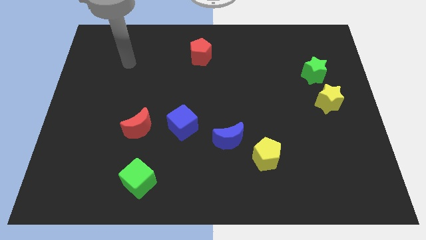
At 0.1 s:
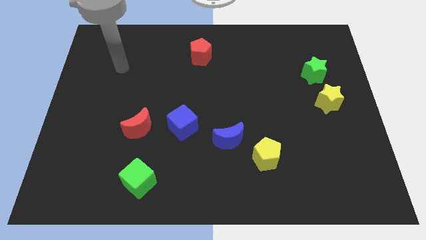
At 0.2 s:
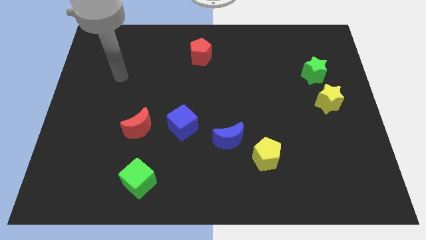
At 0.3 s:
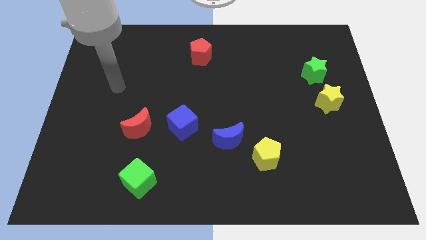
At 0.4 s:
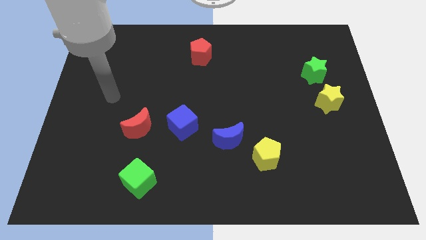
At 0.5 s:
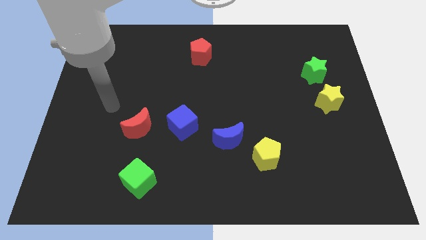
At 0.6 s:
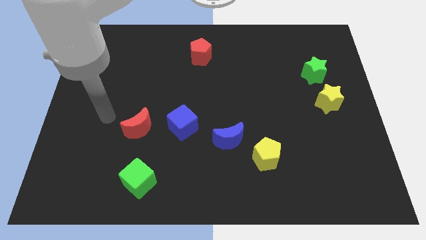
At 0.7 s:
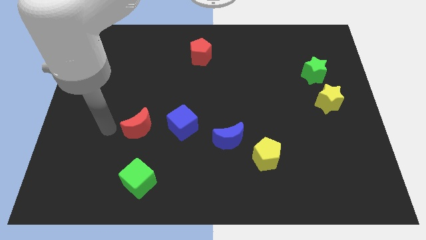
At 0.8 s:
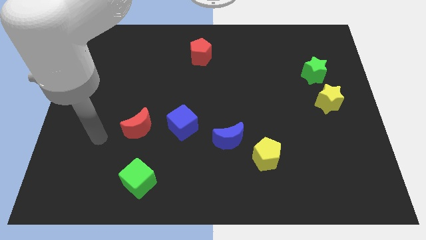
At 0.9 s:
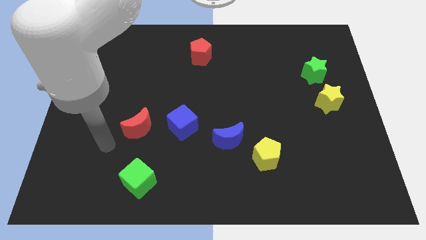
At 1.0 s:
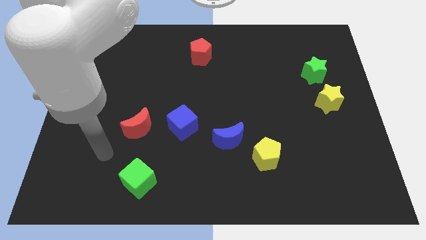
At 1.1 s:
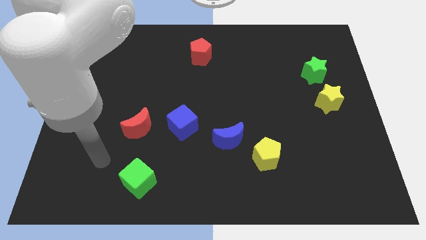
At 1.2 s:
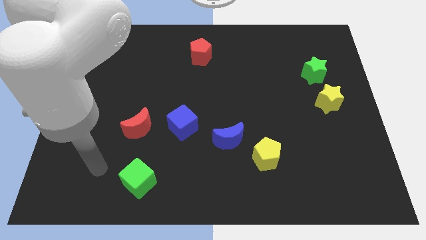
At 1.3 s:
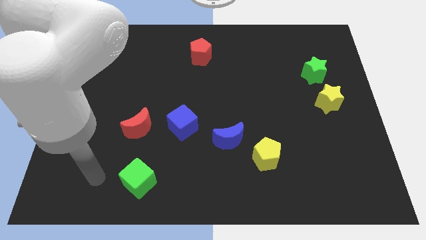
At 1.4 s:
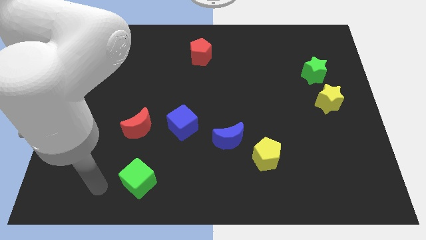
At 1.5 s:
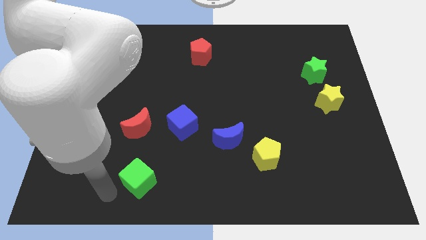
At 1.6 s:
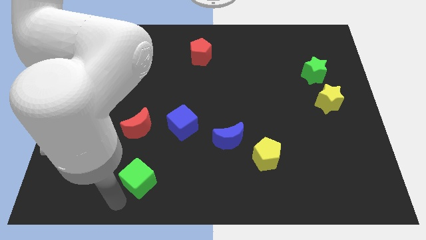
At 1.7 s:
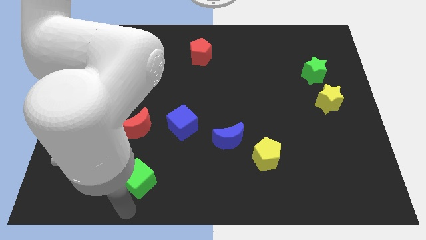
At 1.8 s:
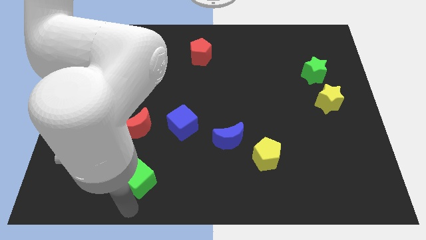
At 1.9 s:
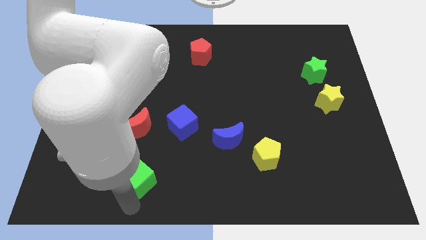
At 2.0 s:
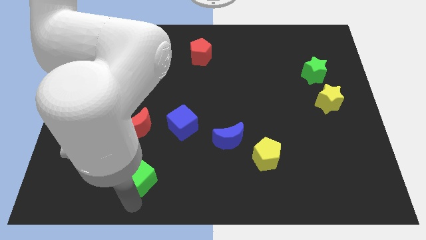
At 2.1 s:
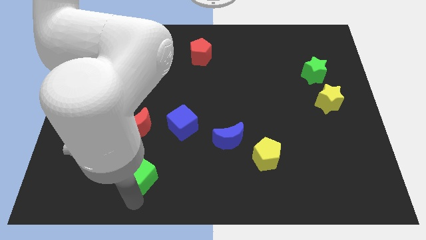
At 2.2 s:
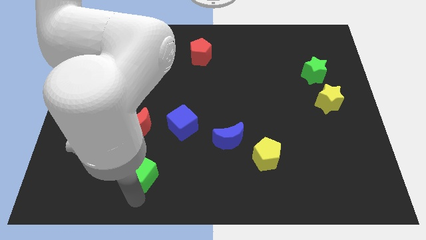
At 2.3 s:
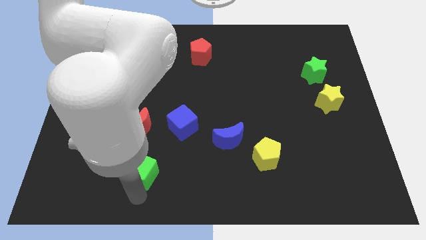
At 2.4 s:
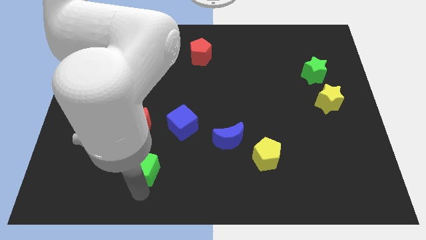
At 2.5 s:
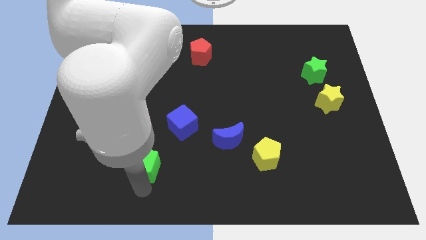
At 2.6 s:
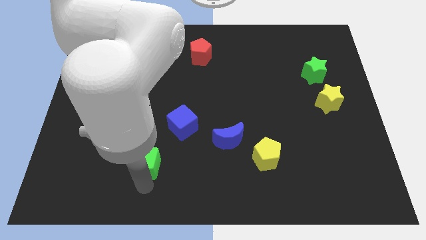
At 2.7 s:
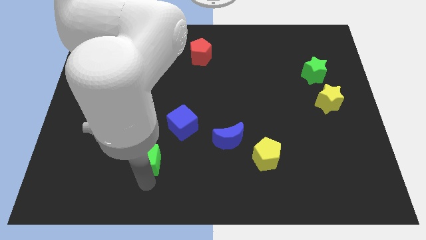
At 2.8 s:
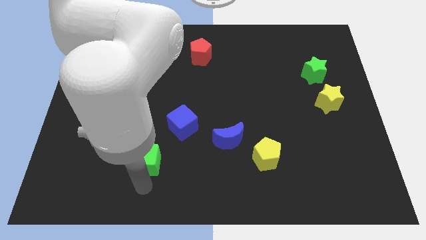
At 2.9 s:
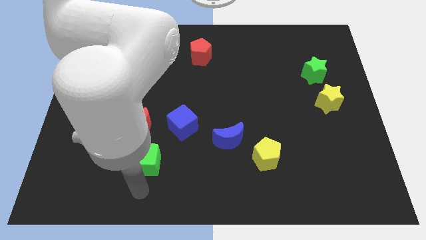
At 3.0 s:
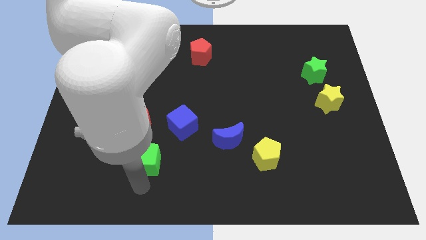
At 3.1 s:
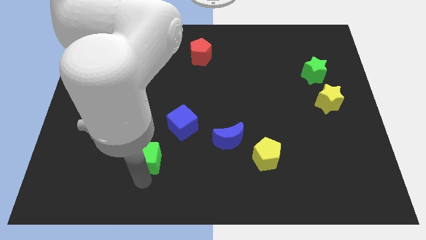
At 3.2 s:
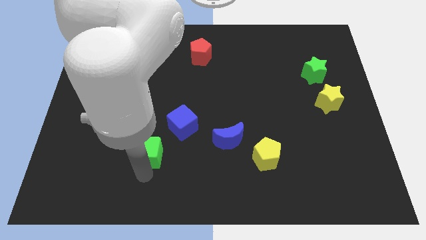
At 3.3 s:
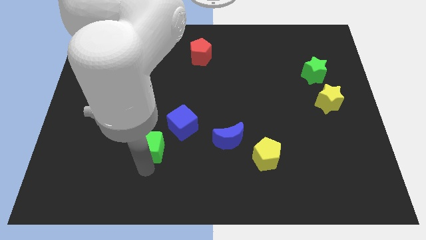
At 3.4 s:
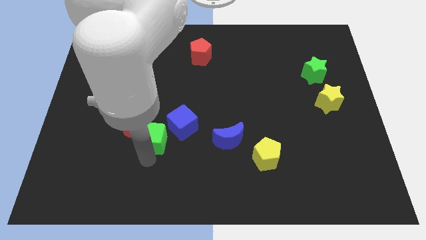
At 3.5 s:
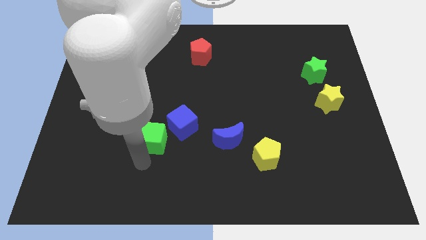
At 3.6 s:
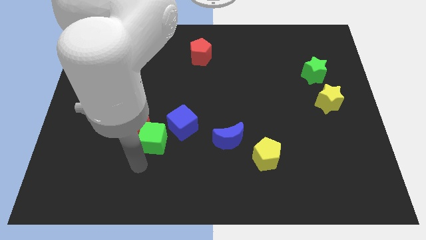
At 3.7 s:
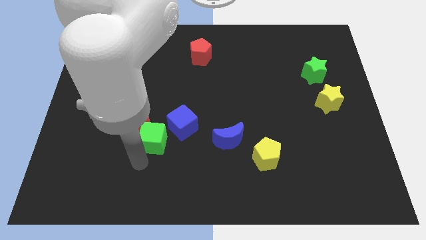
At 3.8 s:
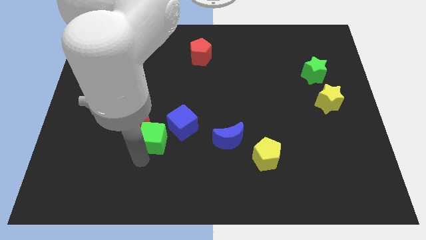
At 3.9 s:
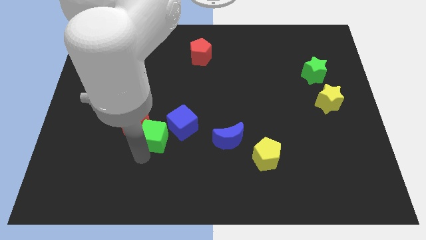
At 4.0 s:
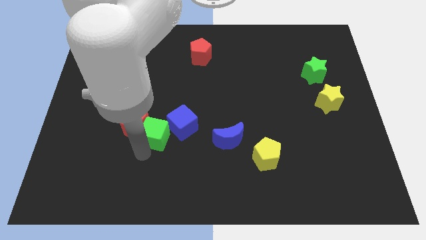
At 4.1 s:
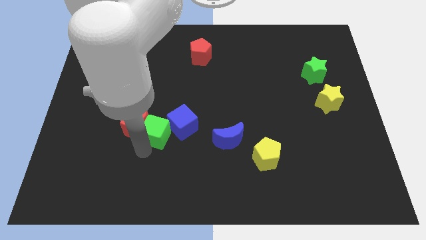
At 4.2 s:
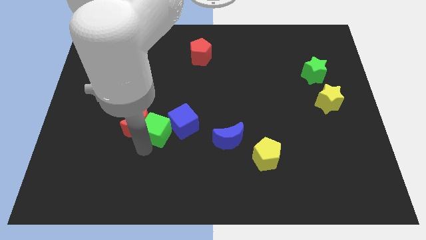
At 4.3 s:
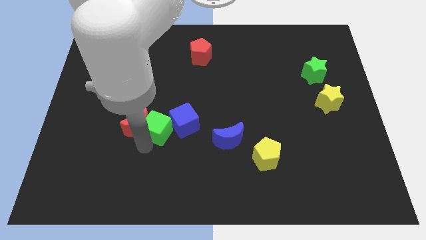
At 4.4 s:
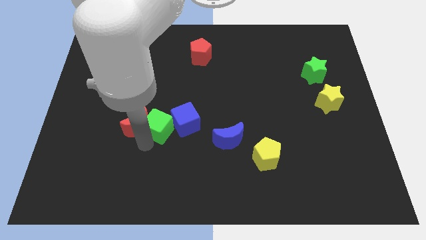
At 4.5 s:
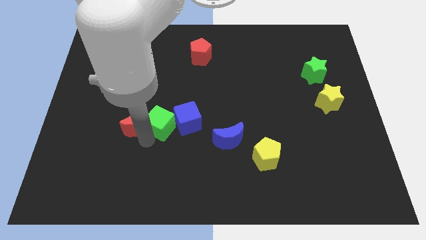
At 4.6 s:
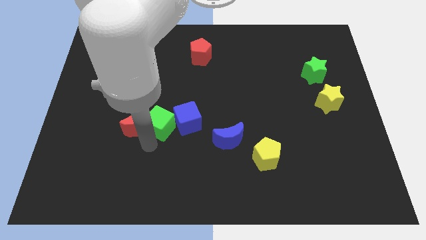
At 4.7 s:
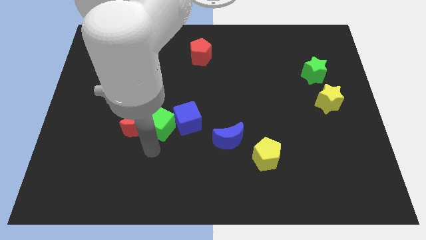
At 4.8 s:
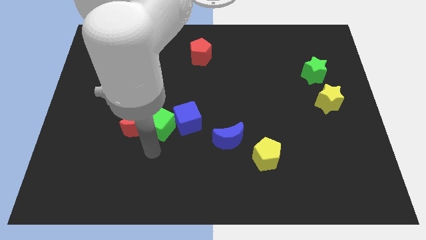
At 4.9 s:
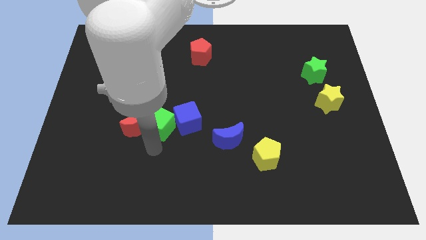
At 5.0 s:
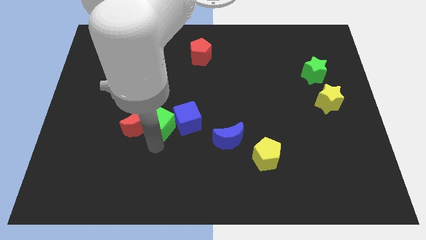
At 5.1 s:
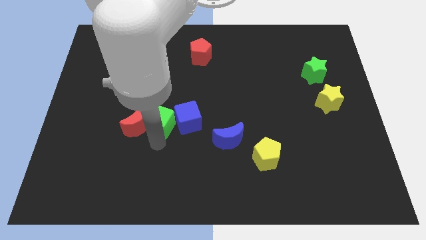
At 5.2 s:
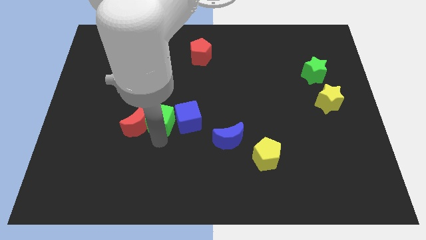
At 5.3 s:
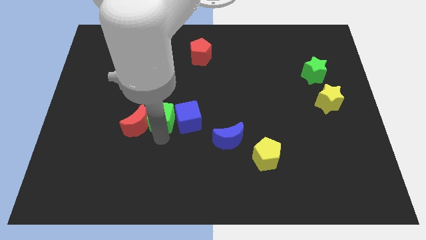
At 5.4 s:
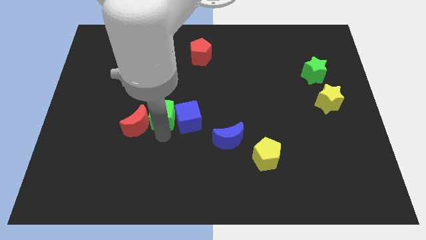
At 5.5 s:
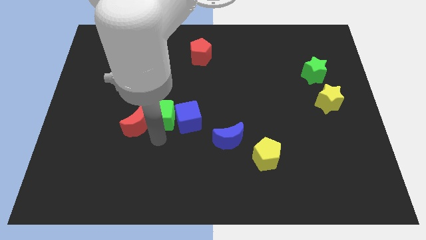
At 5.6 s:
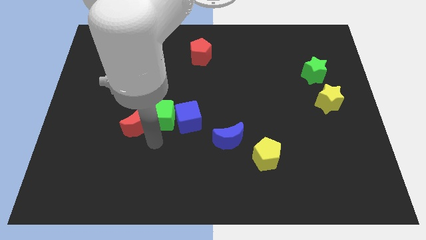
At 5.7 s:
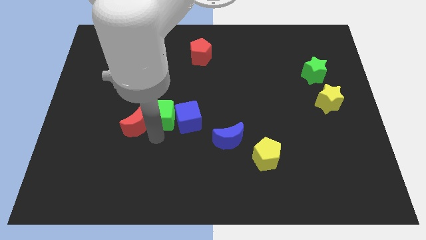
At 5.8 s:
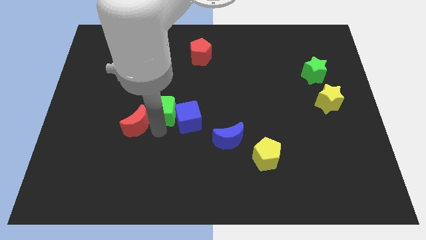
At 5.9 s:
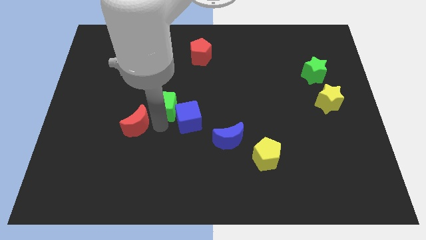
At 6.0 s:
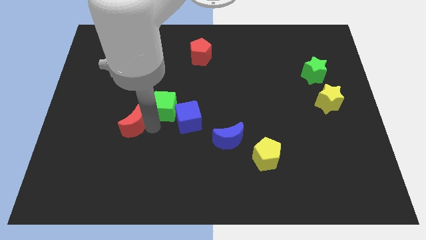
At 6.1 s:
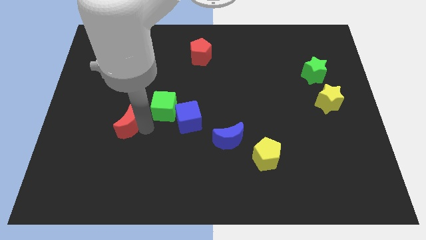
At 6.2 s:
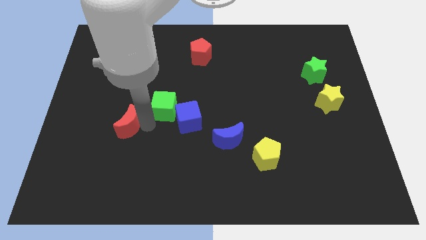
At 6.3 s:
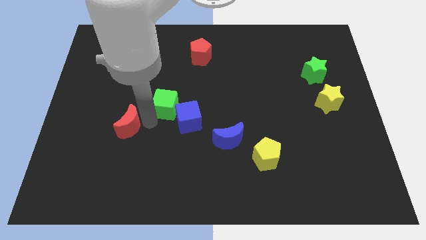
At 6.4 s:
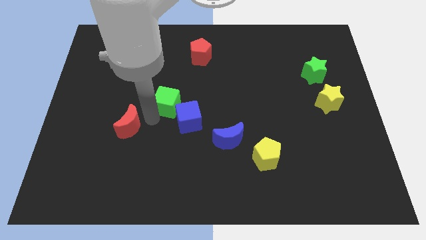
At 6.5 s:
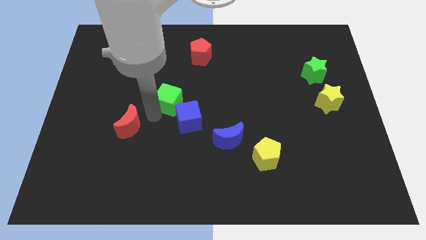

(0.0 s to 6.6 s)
push the green cube above the blue cube

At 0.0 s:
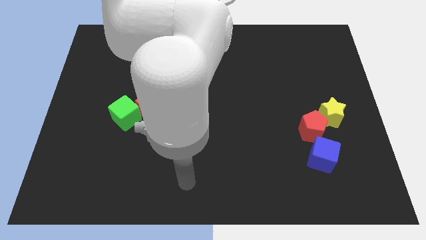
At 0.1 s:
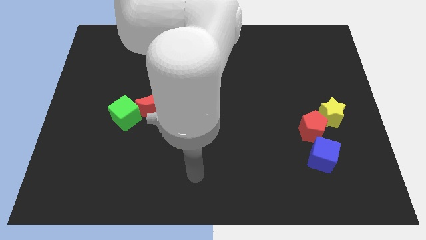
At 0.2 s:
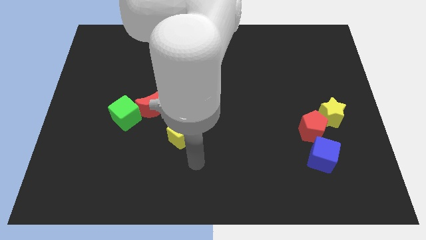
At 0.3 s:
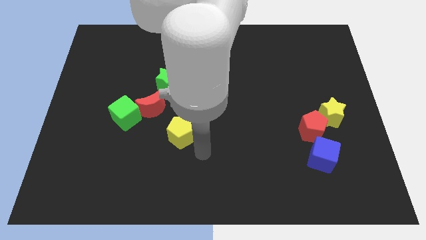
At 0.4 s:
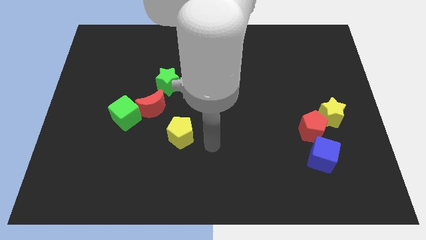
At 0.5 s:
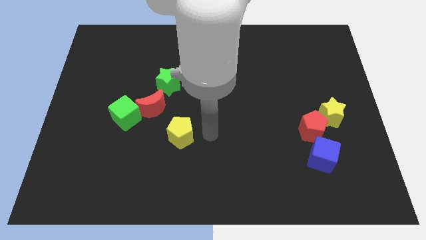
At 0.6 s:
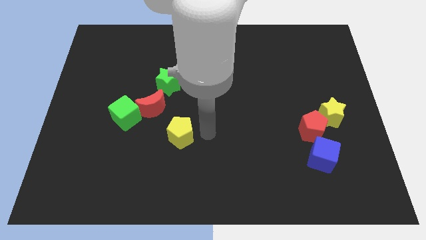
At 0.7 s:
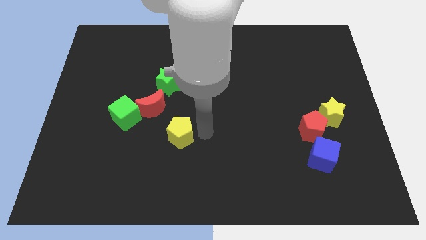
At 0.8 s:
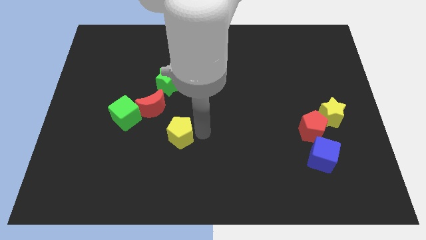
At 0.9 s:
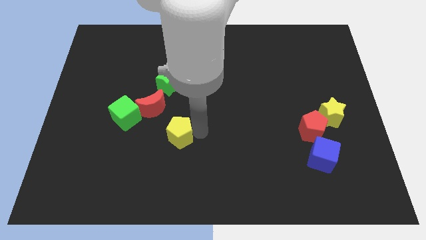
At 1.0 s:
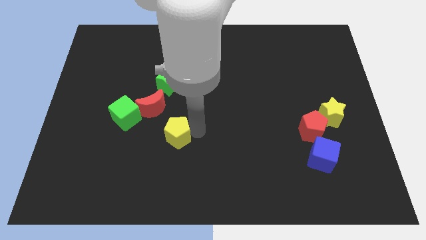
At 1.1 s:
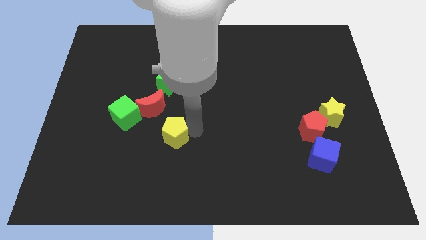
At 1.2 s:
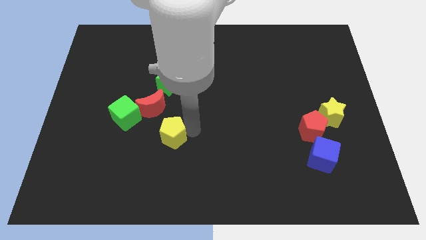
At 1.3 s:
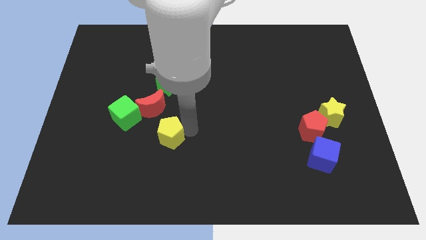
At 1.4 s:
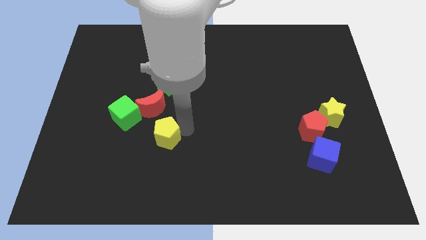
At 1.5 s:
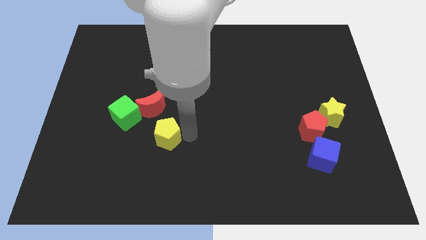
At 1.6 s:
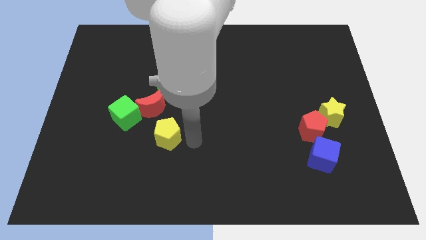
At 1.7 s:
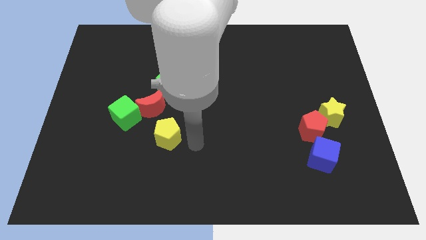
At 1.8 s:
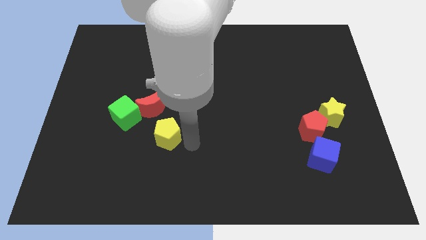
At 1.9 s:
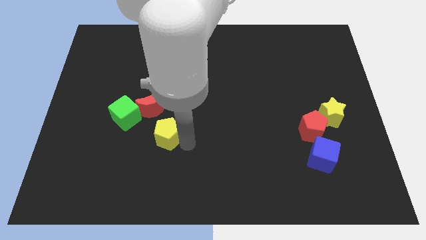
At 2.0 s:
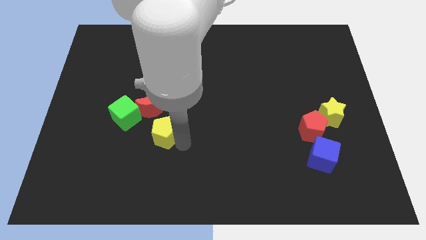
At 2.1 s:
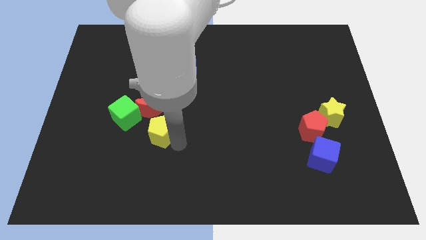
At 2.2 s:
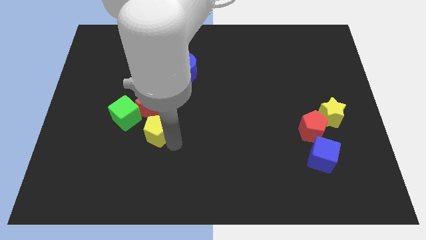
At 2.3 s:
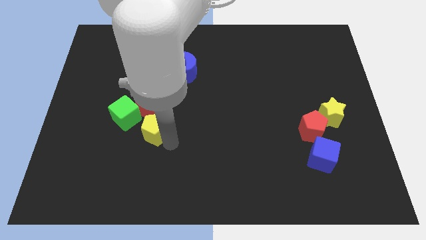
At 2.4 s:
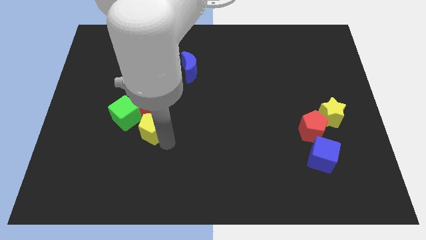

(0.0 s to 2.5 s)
move the yellow pentagon to the bottom left of the red moon
